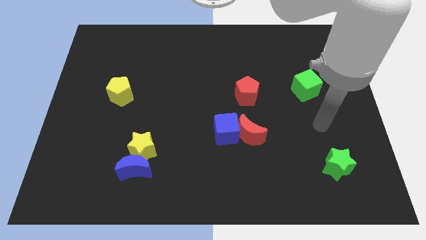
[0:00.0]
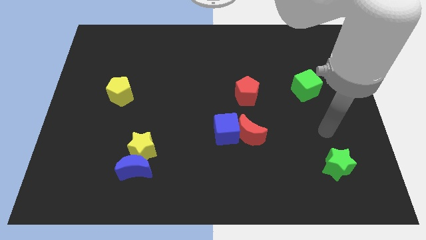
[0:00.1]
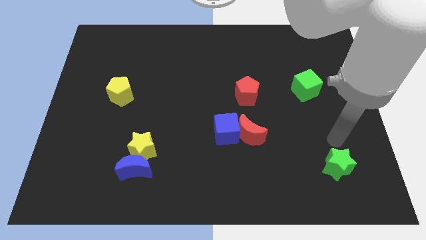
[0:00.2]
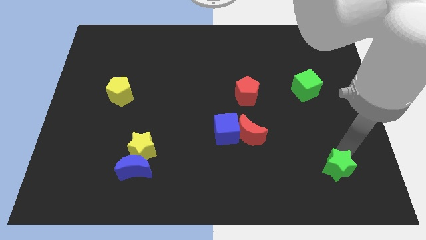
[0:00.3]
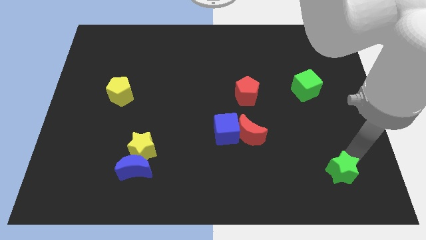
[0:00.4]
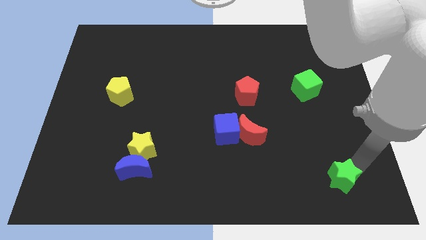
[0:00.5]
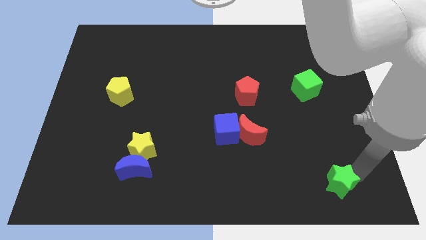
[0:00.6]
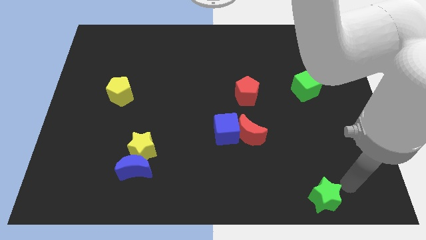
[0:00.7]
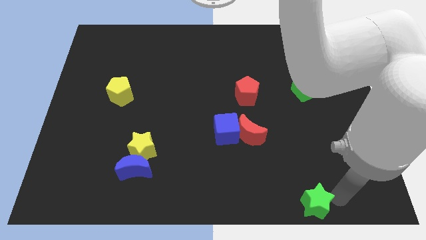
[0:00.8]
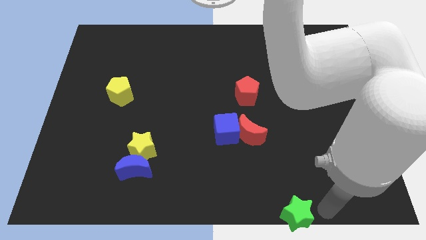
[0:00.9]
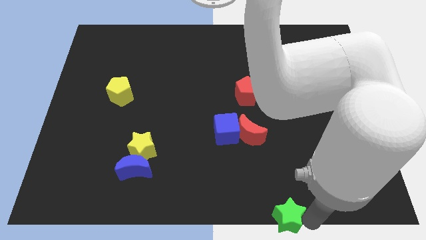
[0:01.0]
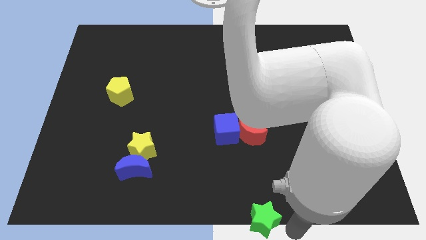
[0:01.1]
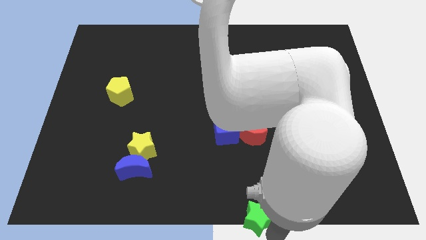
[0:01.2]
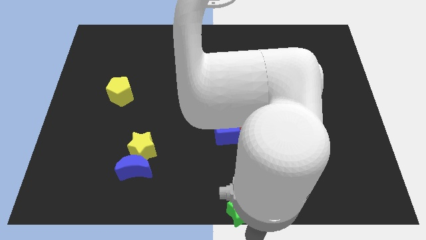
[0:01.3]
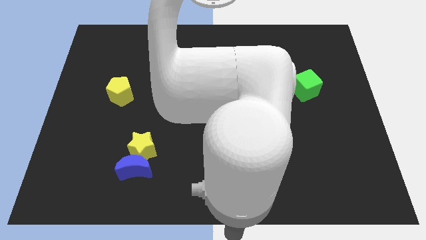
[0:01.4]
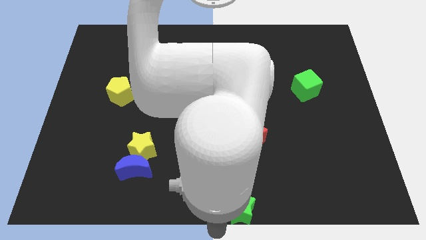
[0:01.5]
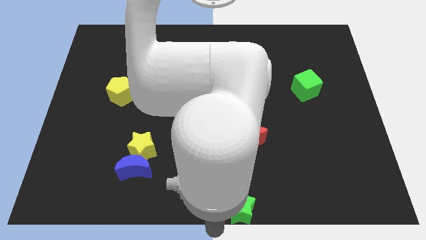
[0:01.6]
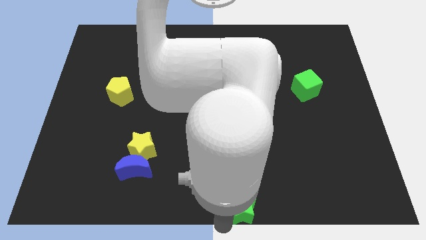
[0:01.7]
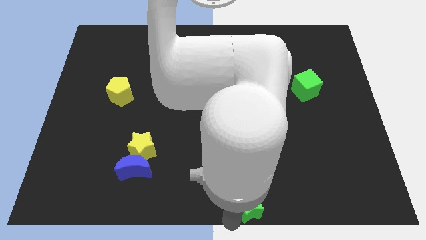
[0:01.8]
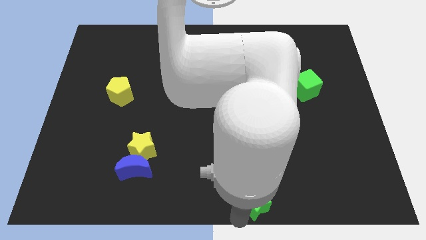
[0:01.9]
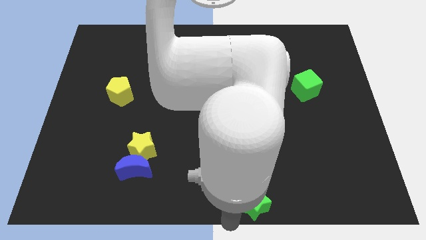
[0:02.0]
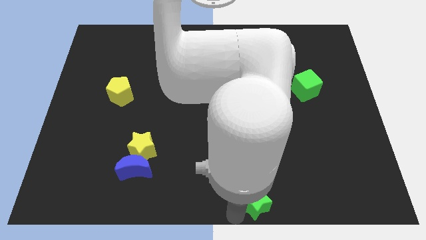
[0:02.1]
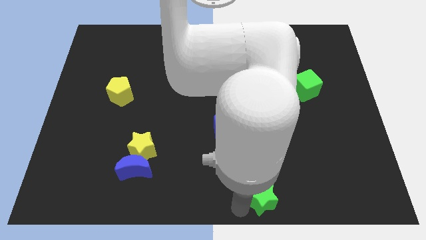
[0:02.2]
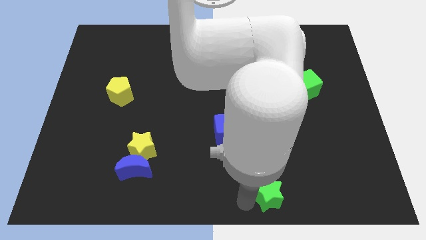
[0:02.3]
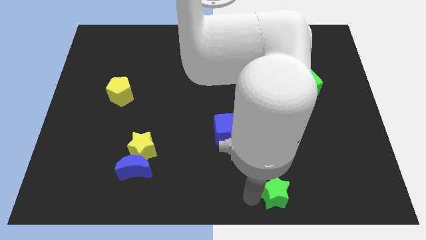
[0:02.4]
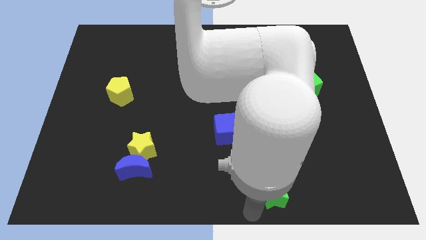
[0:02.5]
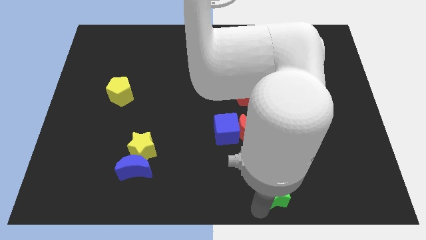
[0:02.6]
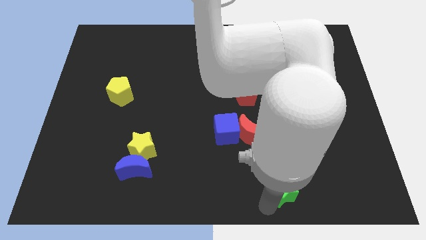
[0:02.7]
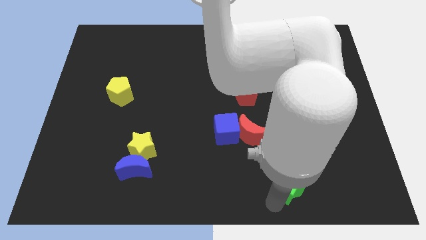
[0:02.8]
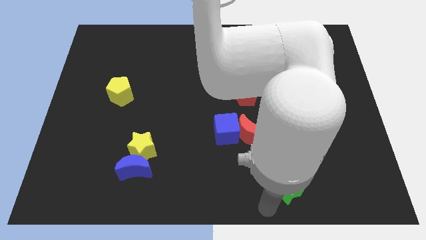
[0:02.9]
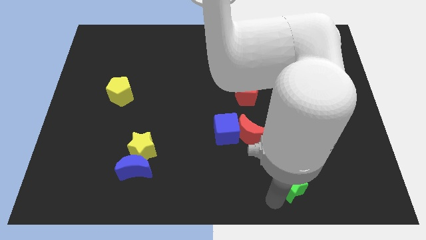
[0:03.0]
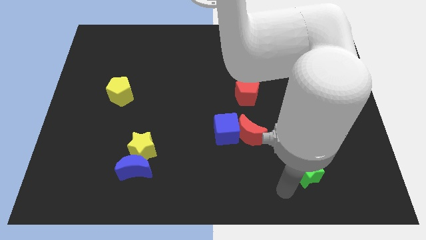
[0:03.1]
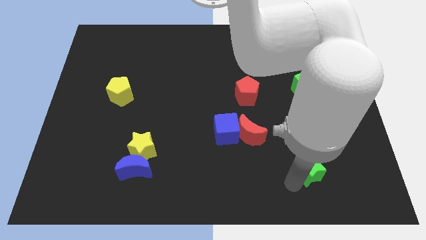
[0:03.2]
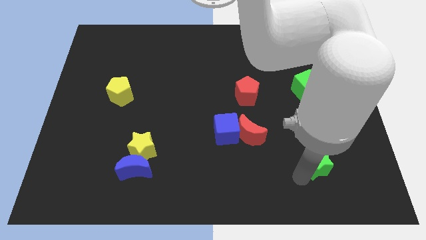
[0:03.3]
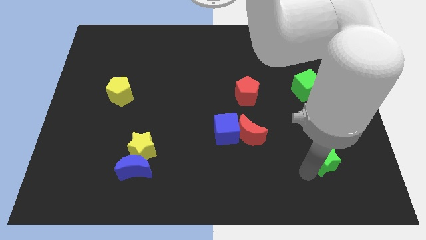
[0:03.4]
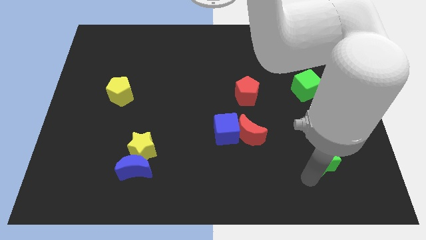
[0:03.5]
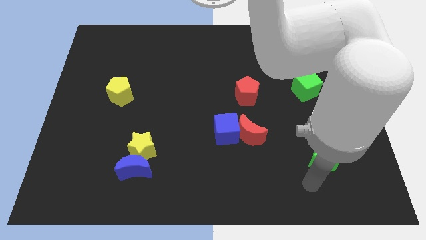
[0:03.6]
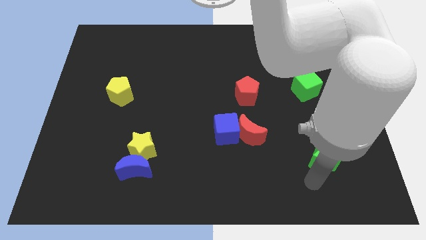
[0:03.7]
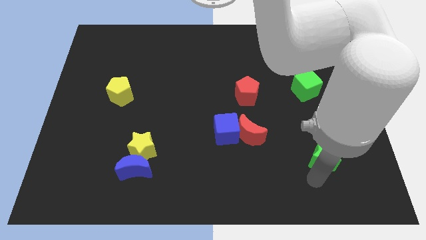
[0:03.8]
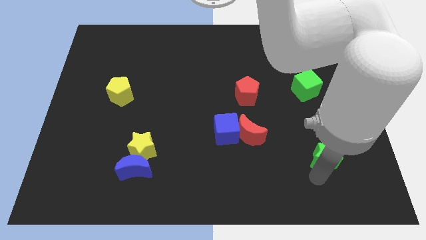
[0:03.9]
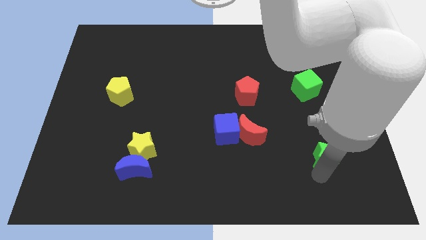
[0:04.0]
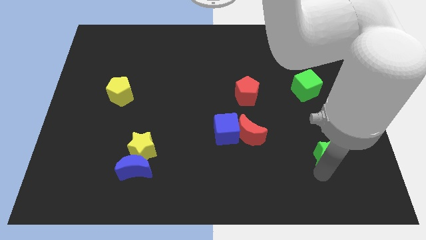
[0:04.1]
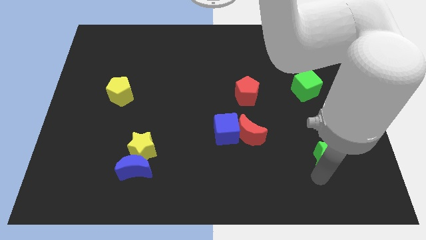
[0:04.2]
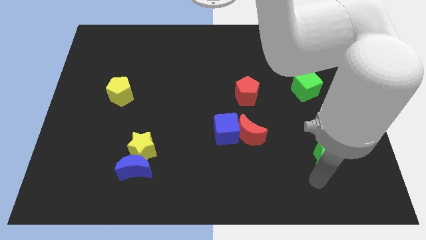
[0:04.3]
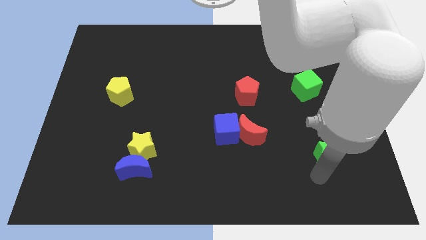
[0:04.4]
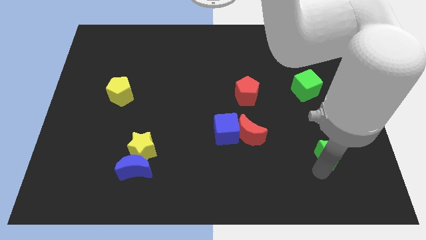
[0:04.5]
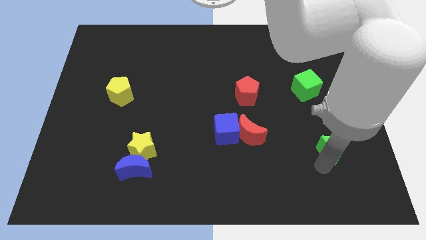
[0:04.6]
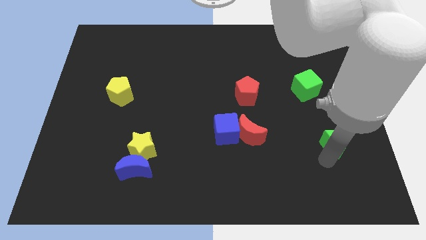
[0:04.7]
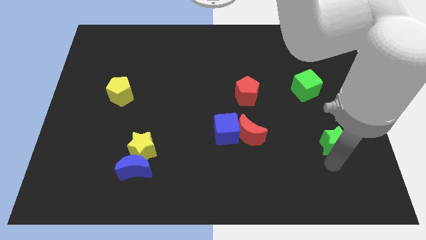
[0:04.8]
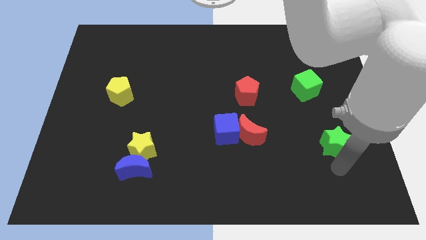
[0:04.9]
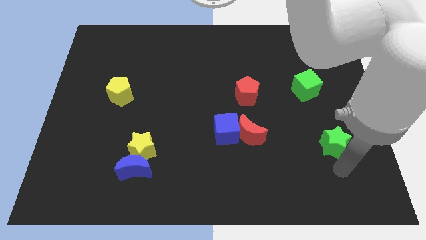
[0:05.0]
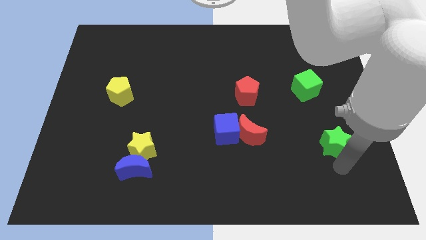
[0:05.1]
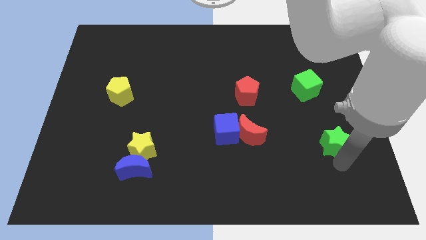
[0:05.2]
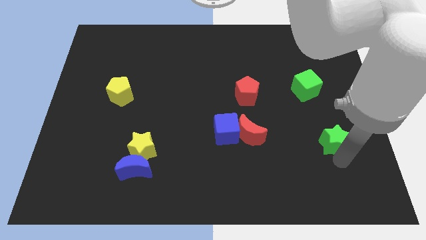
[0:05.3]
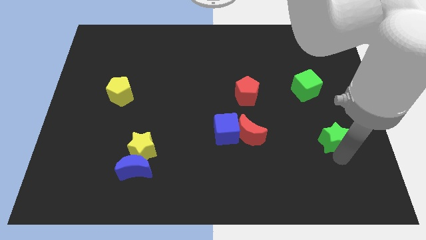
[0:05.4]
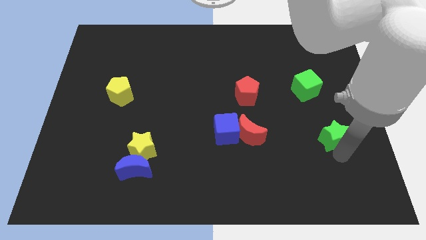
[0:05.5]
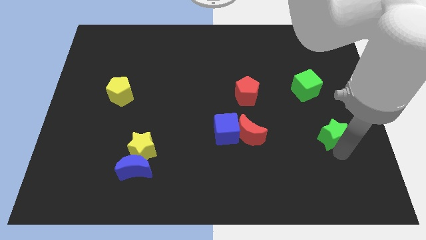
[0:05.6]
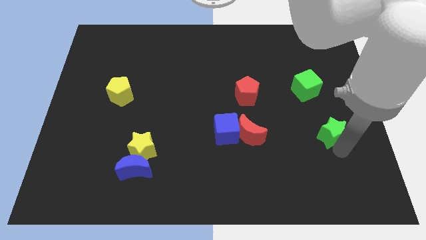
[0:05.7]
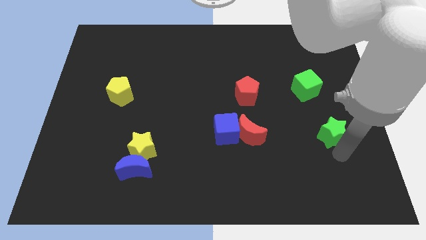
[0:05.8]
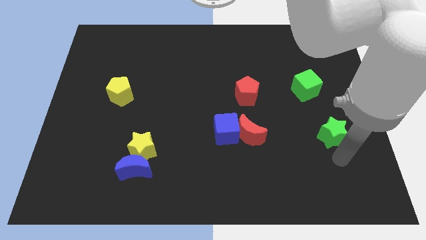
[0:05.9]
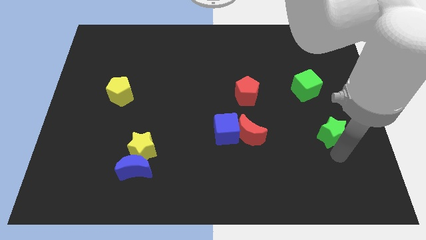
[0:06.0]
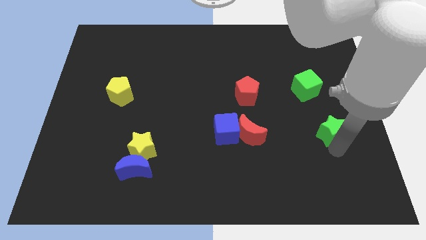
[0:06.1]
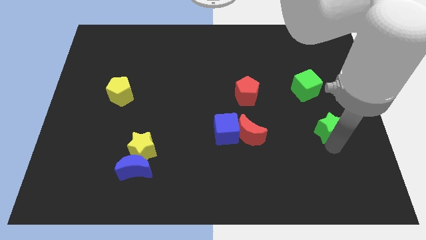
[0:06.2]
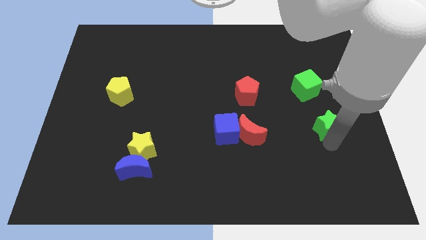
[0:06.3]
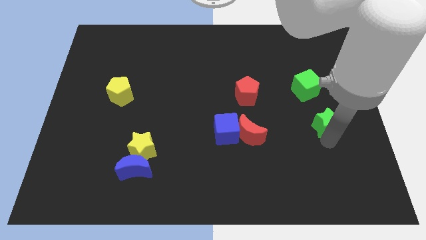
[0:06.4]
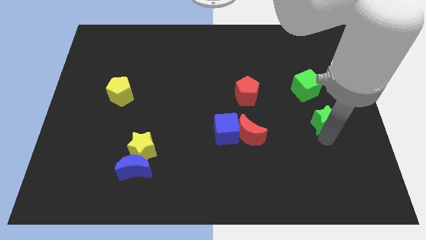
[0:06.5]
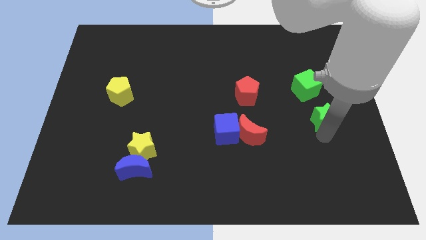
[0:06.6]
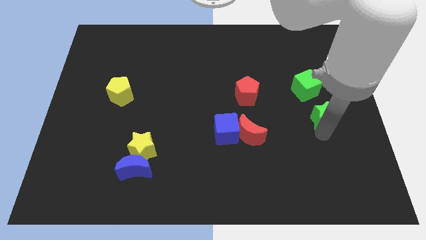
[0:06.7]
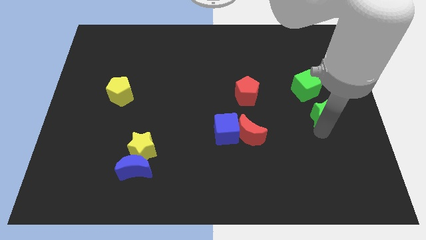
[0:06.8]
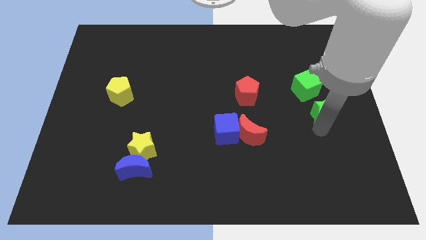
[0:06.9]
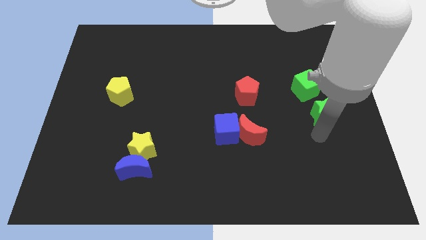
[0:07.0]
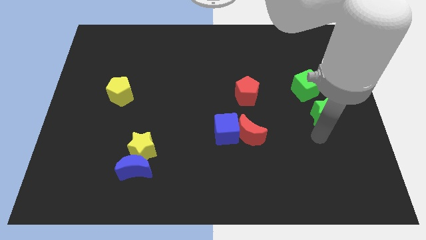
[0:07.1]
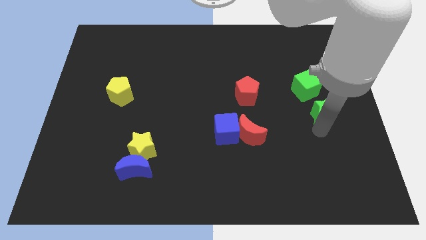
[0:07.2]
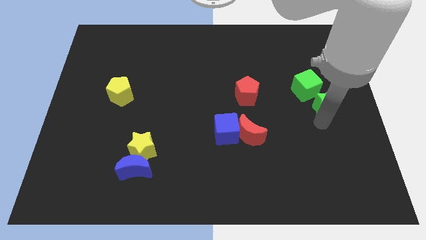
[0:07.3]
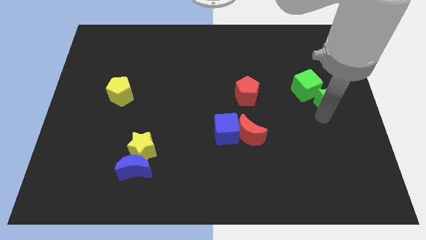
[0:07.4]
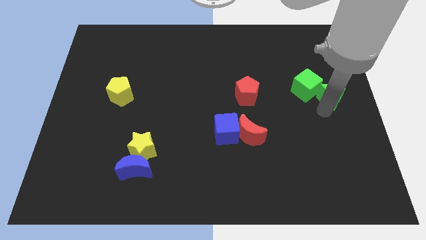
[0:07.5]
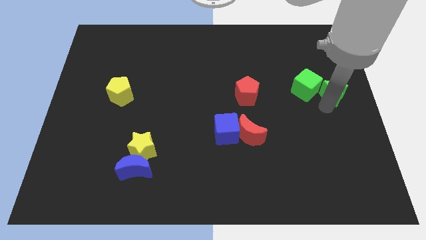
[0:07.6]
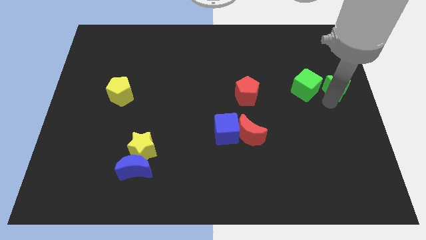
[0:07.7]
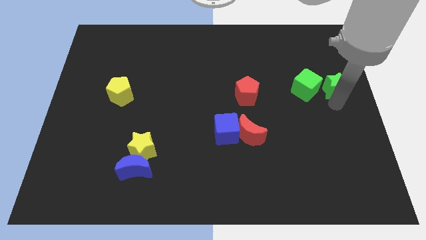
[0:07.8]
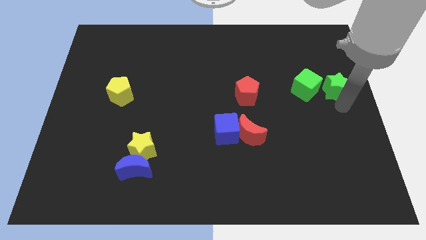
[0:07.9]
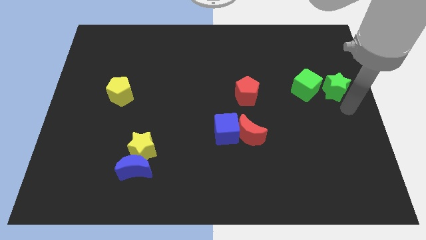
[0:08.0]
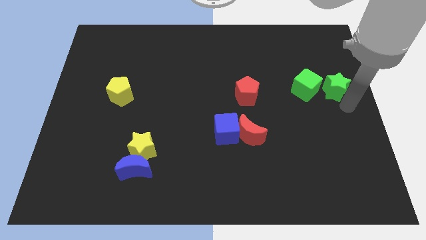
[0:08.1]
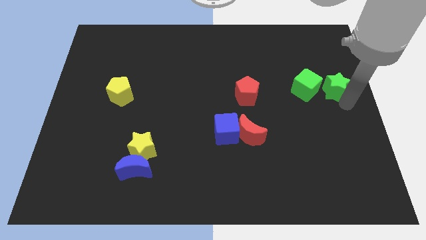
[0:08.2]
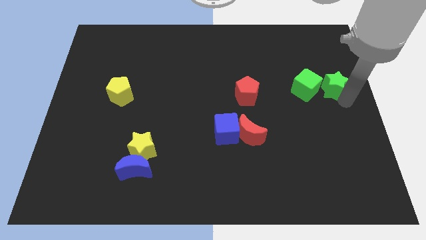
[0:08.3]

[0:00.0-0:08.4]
put the green star to the top right side of the green cube
